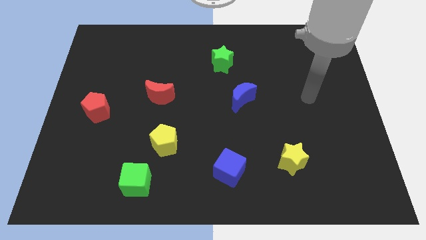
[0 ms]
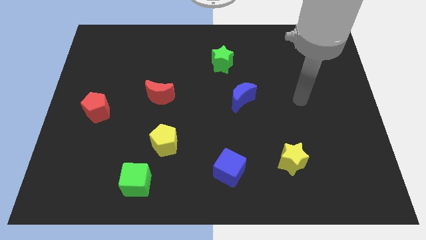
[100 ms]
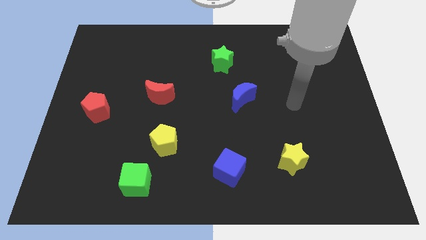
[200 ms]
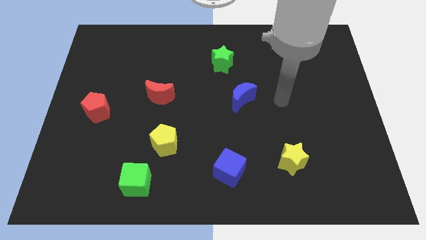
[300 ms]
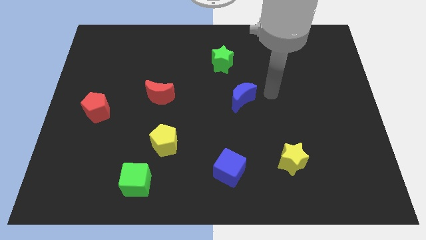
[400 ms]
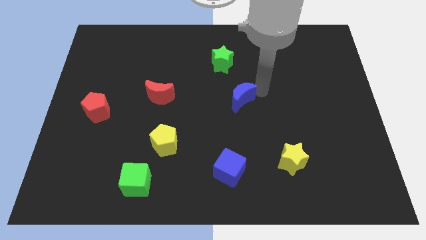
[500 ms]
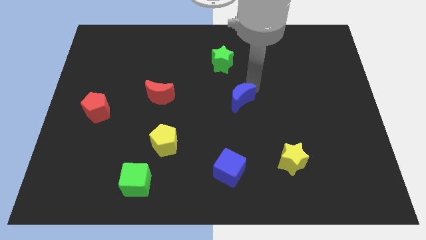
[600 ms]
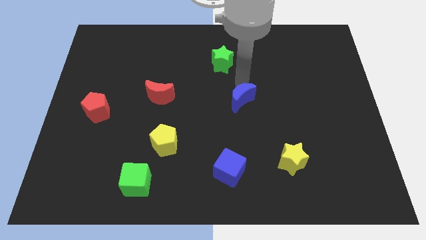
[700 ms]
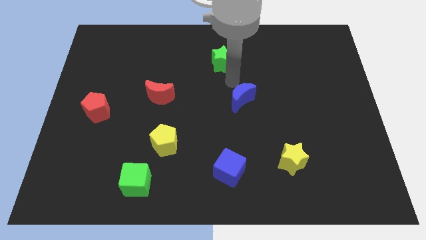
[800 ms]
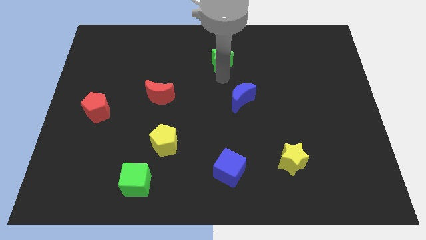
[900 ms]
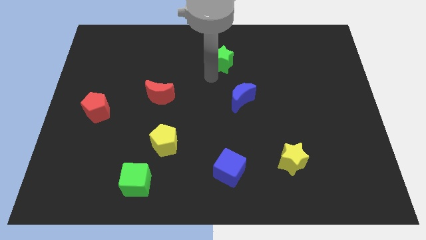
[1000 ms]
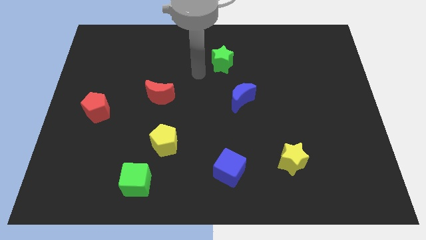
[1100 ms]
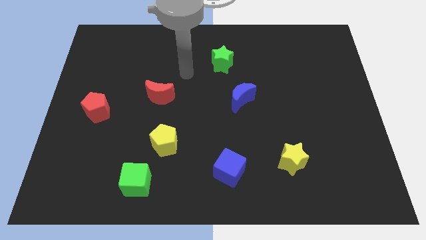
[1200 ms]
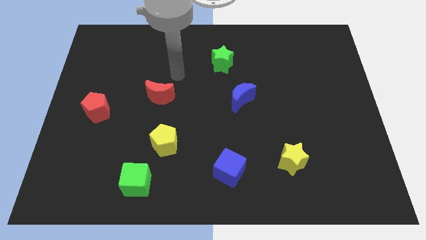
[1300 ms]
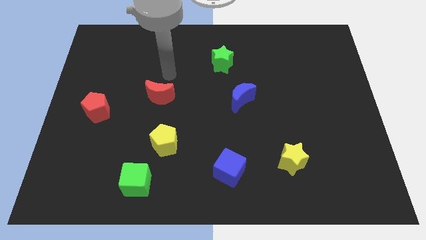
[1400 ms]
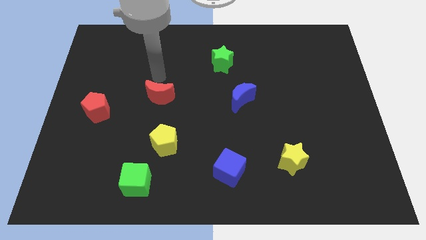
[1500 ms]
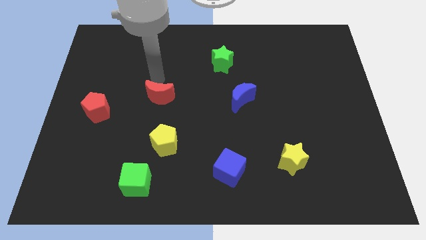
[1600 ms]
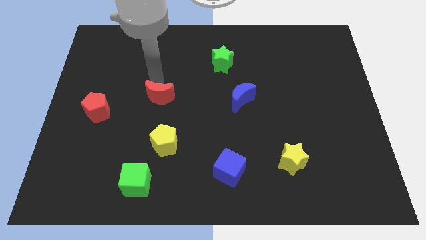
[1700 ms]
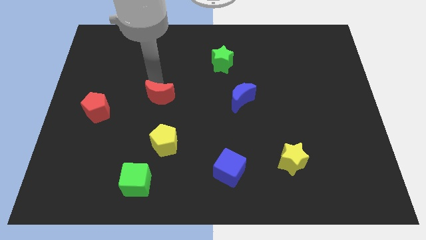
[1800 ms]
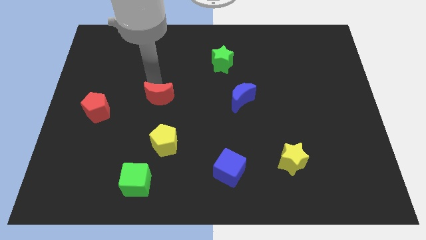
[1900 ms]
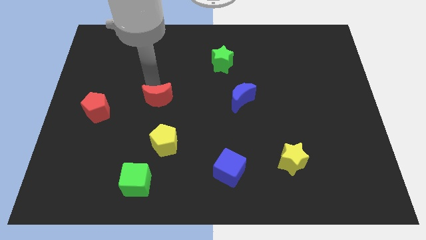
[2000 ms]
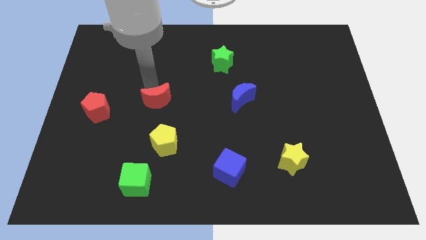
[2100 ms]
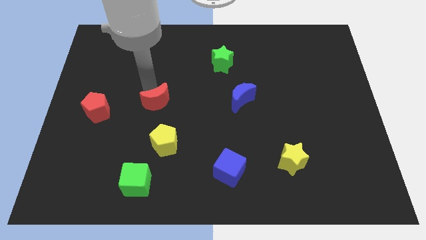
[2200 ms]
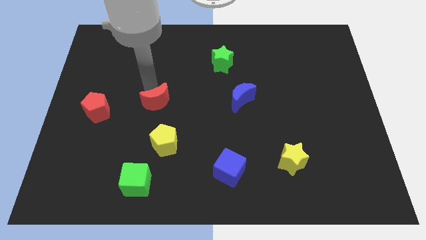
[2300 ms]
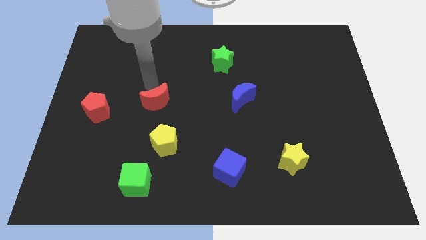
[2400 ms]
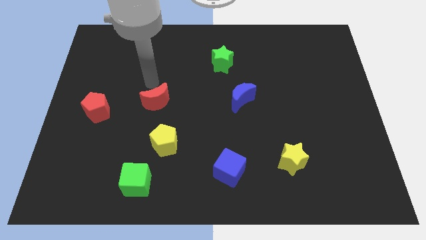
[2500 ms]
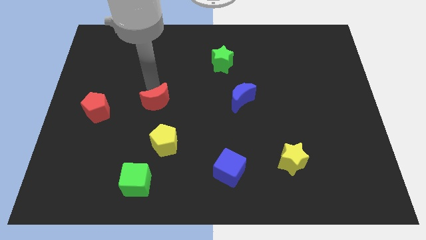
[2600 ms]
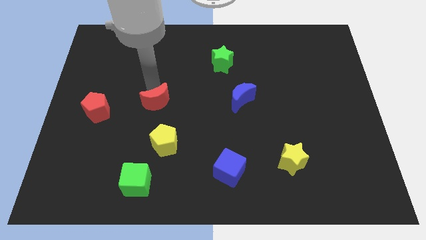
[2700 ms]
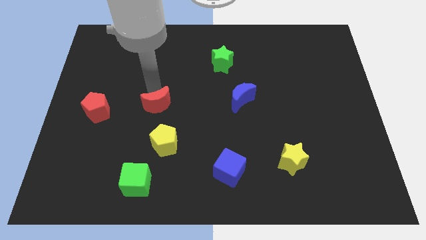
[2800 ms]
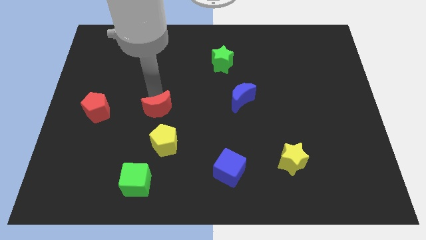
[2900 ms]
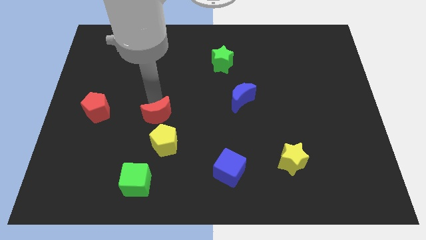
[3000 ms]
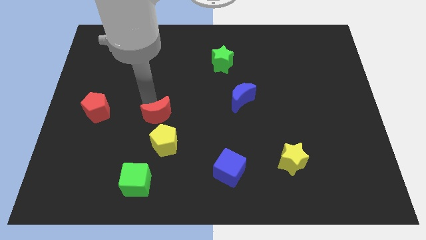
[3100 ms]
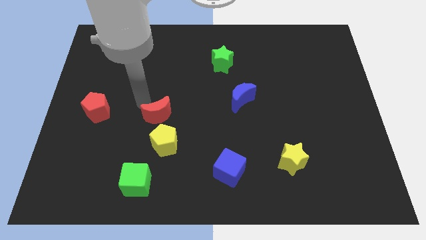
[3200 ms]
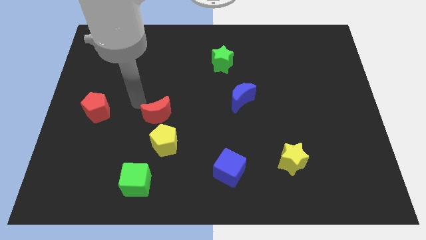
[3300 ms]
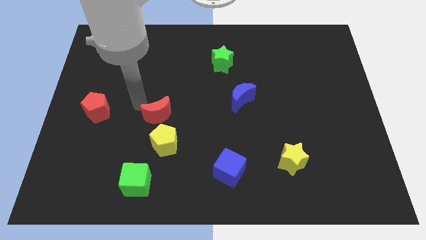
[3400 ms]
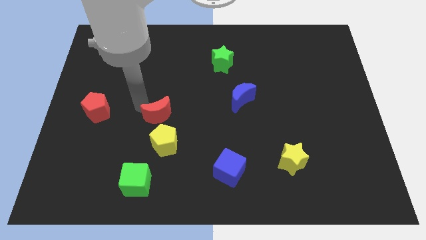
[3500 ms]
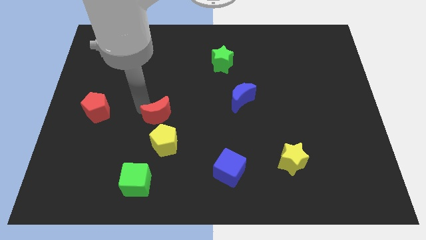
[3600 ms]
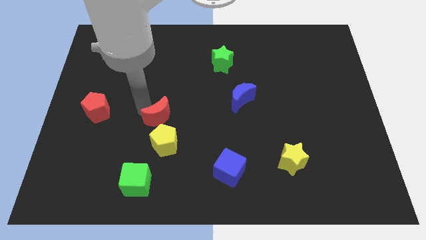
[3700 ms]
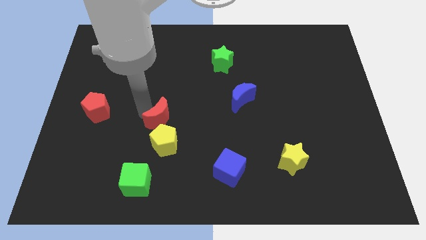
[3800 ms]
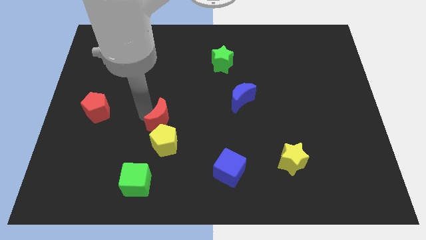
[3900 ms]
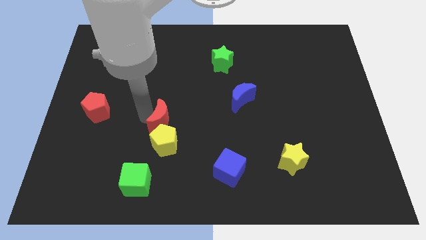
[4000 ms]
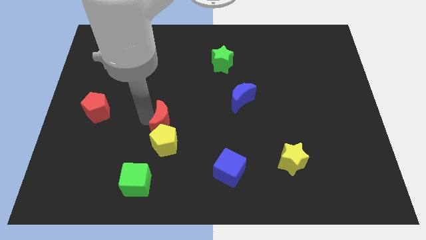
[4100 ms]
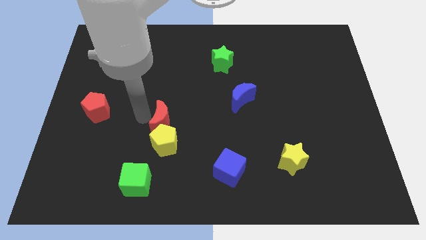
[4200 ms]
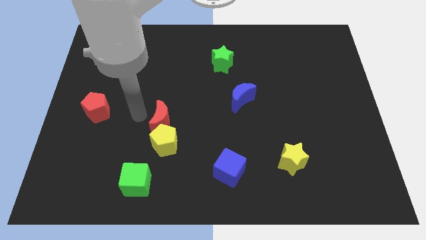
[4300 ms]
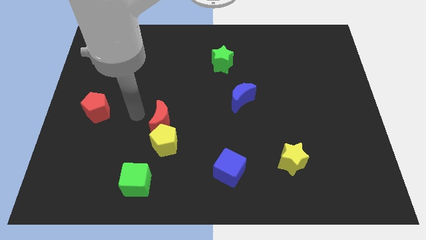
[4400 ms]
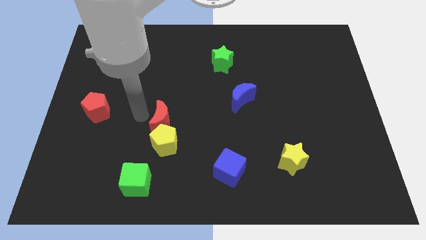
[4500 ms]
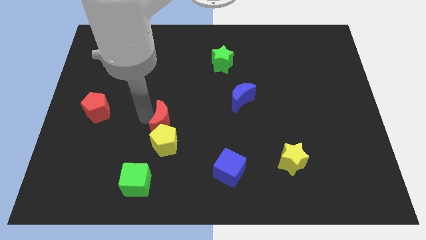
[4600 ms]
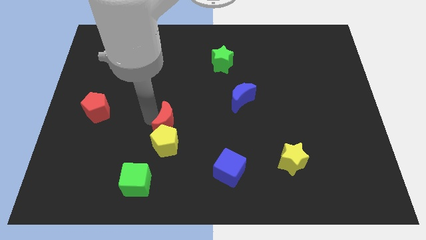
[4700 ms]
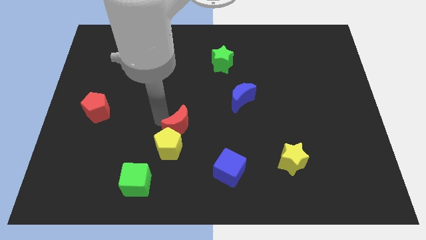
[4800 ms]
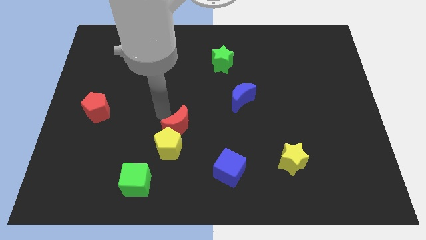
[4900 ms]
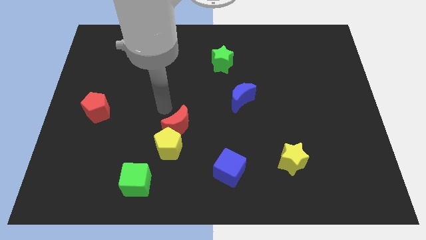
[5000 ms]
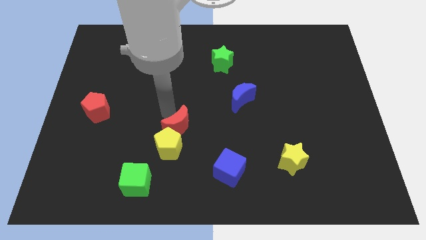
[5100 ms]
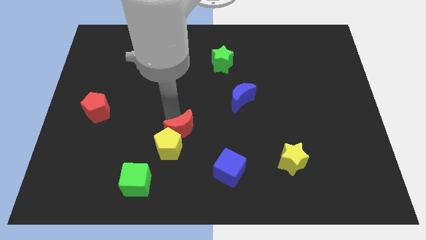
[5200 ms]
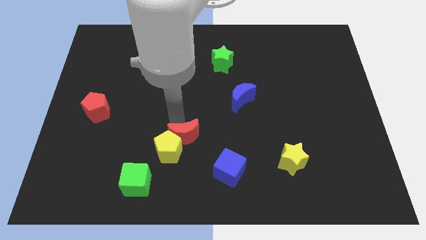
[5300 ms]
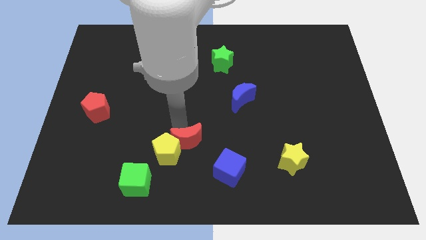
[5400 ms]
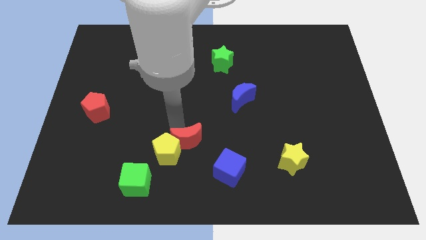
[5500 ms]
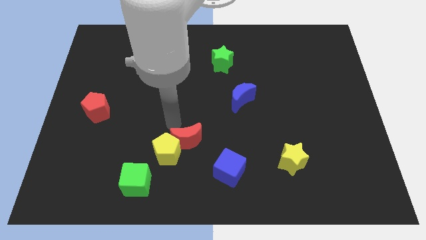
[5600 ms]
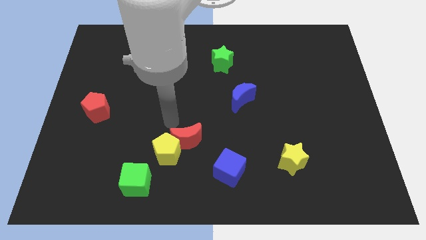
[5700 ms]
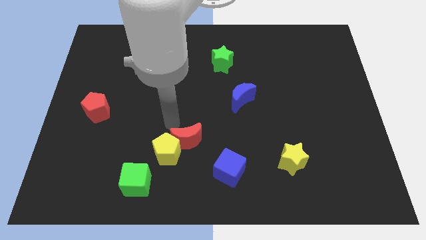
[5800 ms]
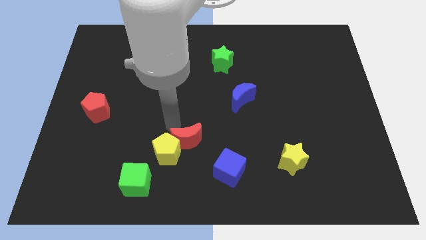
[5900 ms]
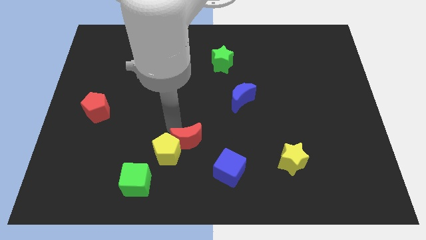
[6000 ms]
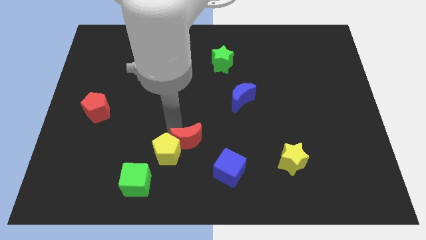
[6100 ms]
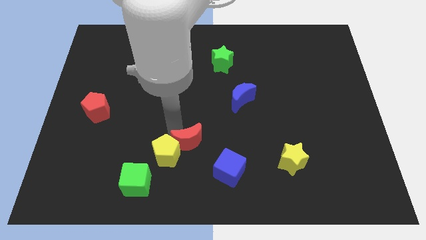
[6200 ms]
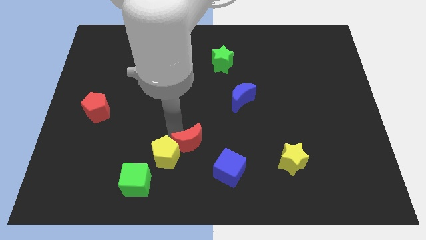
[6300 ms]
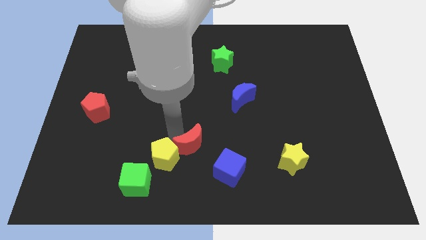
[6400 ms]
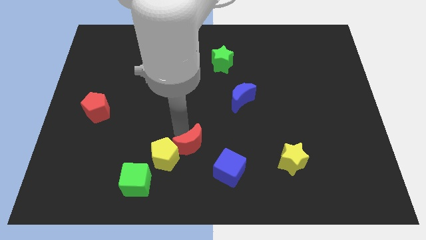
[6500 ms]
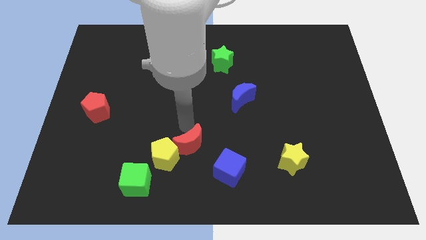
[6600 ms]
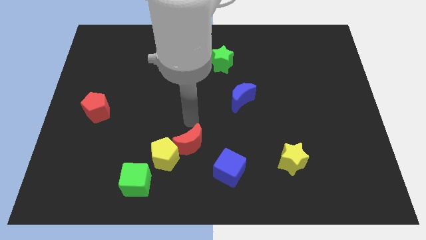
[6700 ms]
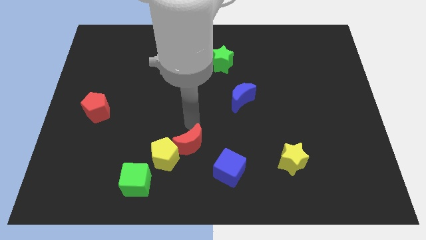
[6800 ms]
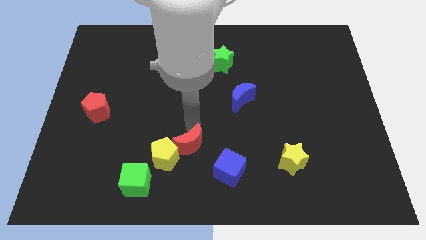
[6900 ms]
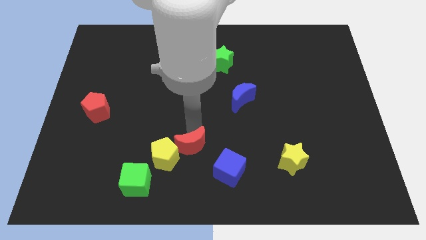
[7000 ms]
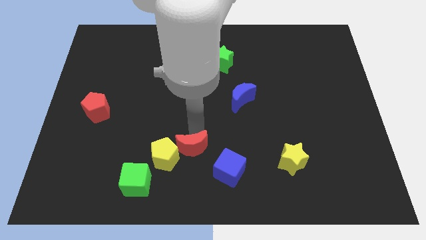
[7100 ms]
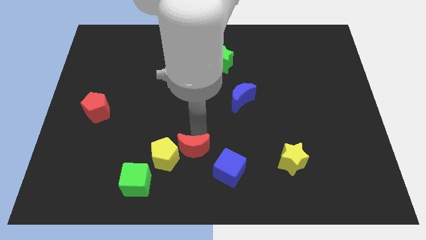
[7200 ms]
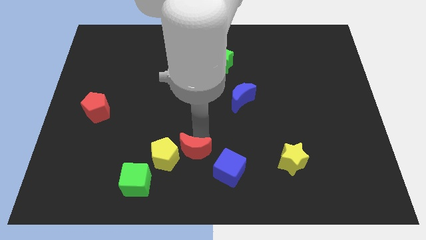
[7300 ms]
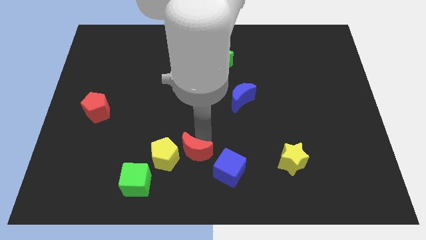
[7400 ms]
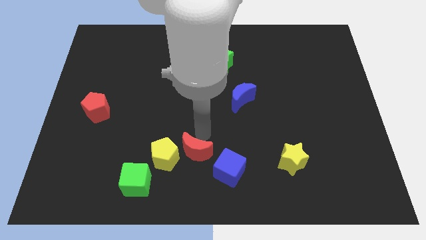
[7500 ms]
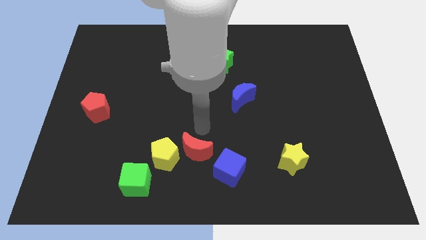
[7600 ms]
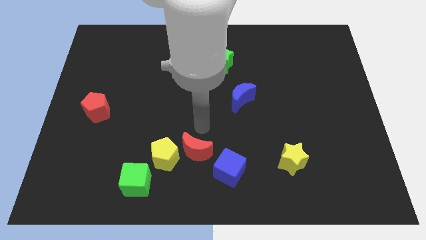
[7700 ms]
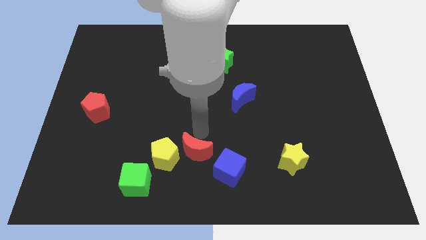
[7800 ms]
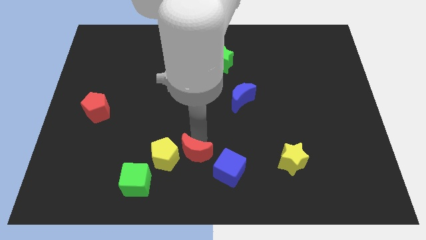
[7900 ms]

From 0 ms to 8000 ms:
slide the red moon to the bottom right of the yellow pentagon
